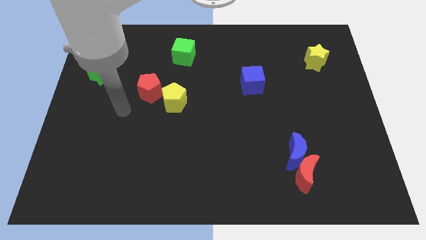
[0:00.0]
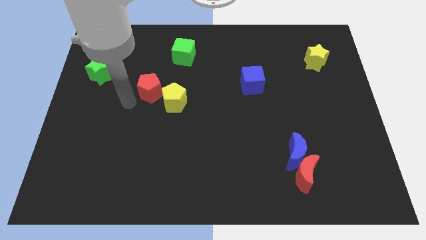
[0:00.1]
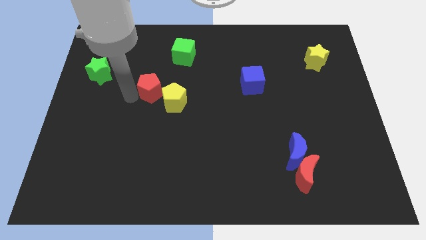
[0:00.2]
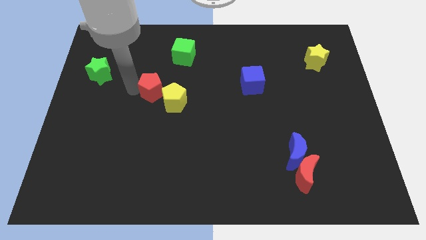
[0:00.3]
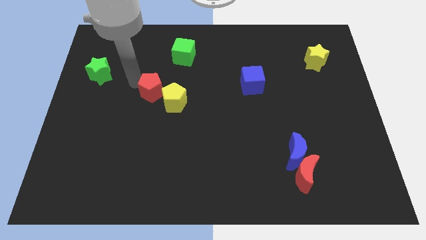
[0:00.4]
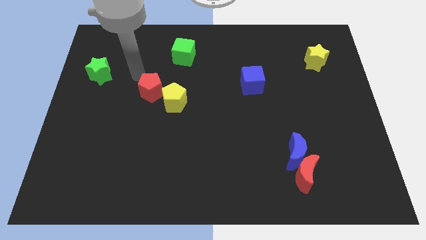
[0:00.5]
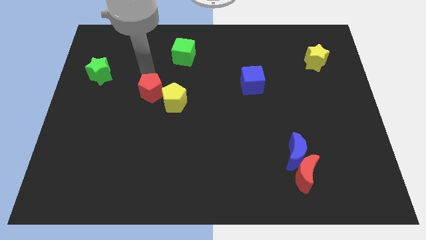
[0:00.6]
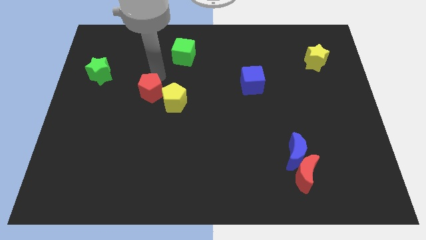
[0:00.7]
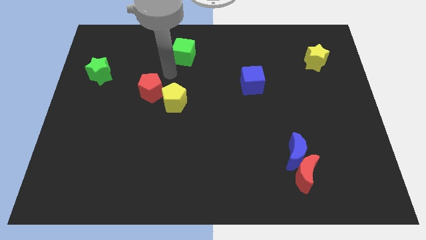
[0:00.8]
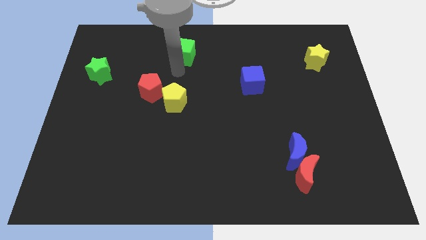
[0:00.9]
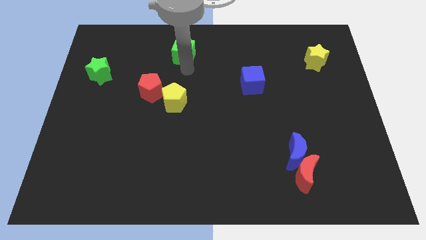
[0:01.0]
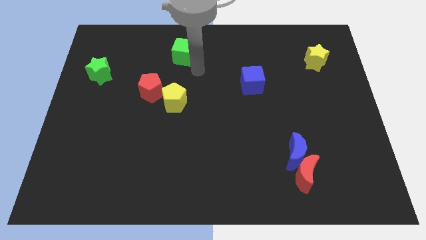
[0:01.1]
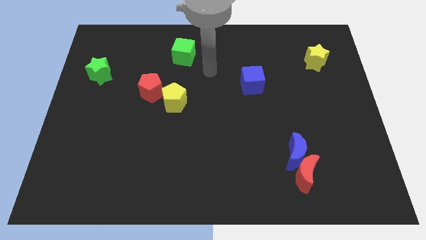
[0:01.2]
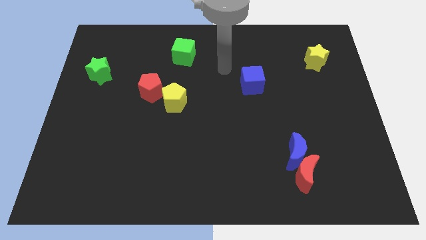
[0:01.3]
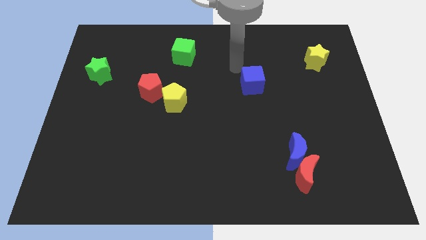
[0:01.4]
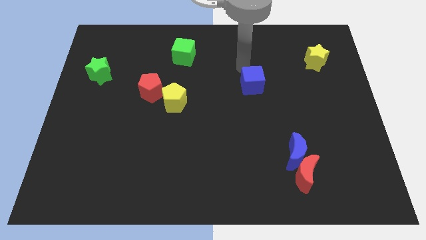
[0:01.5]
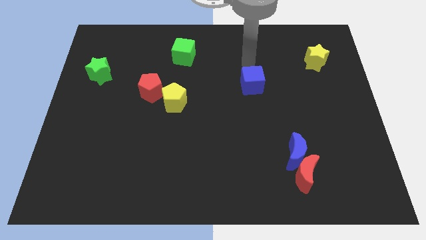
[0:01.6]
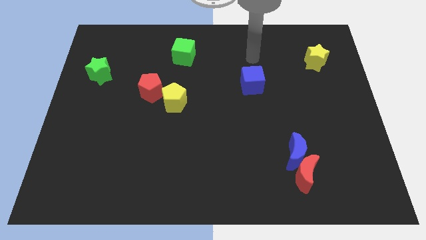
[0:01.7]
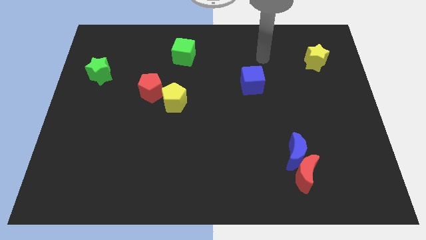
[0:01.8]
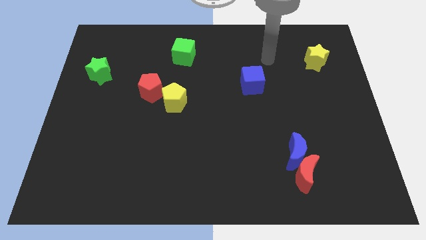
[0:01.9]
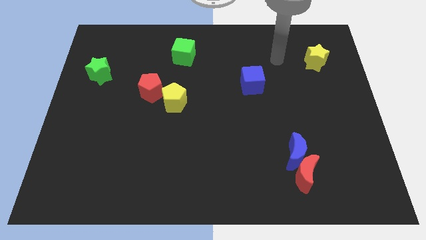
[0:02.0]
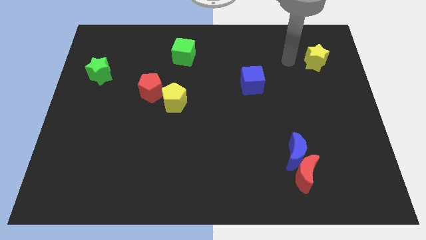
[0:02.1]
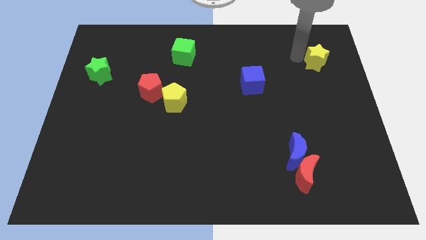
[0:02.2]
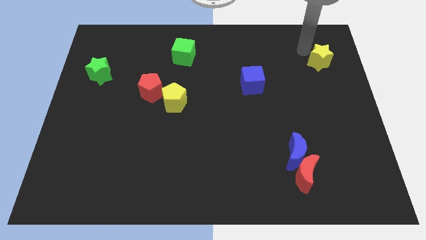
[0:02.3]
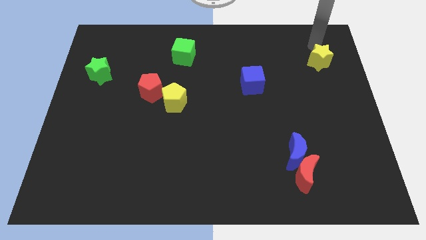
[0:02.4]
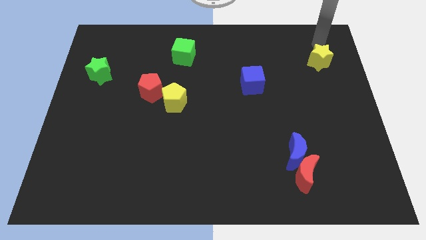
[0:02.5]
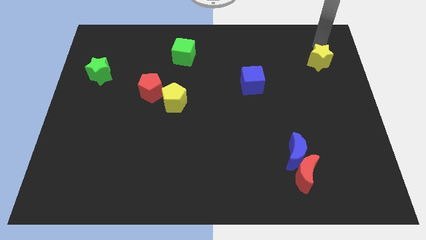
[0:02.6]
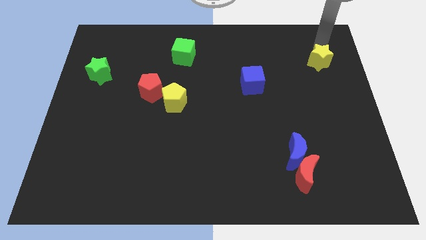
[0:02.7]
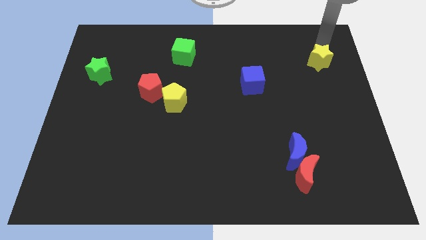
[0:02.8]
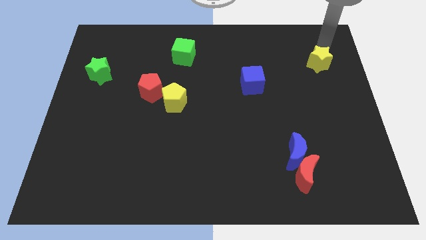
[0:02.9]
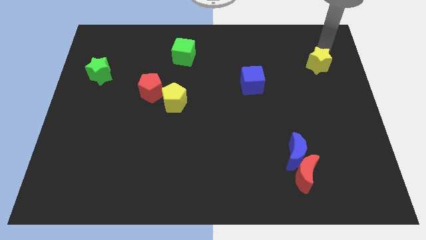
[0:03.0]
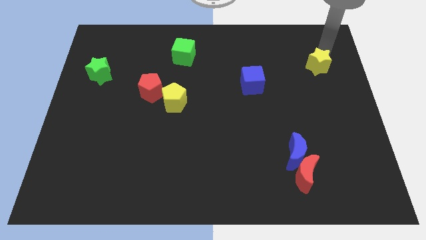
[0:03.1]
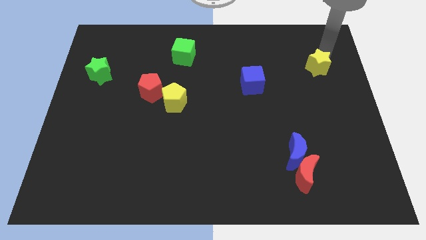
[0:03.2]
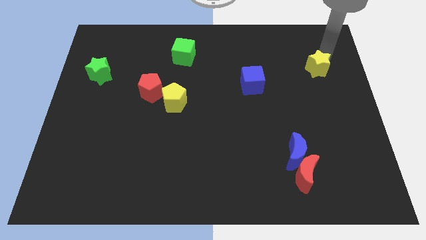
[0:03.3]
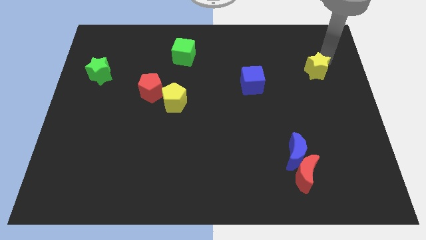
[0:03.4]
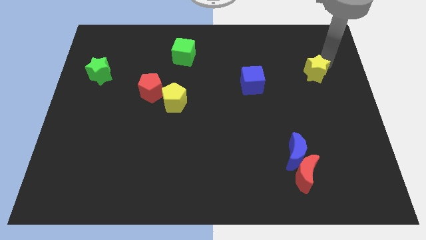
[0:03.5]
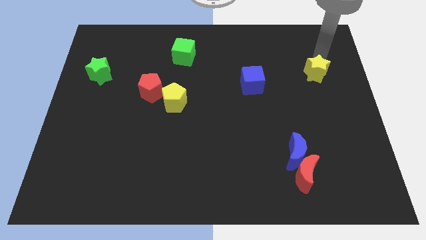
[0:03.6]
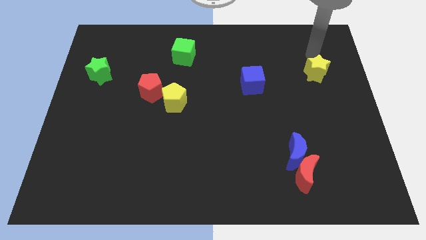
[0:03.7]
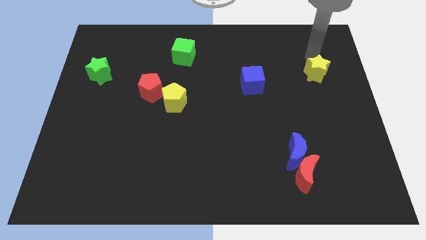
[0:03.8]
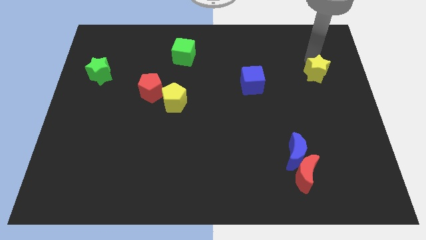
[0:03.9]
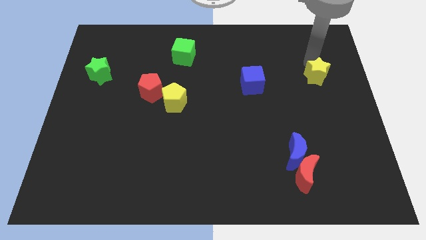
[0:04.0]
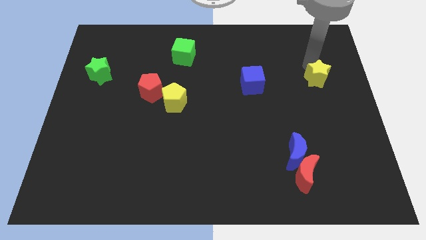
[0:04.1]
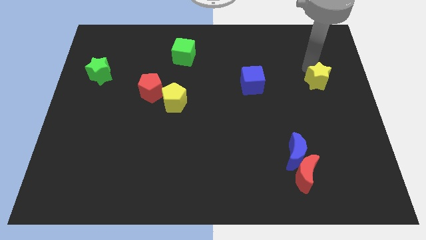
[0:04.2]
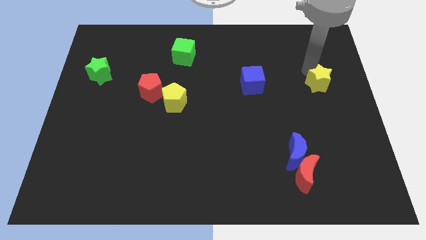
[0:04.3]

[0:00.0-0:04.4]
slightly push the yellow star downwards

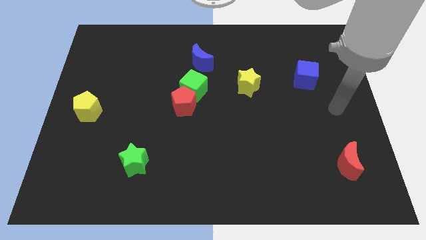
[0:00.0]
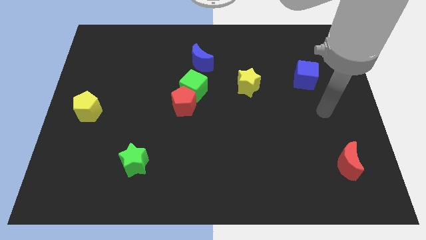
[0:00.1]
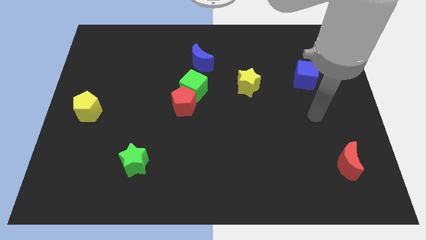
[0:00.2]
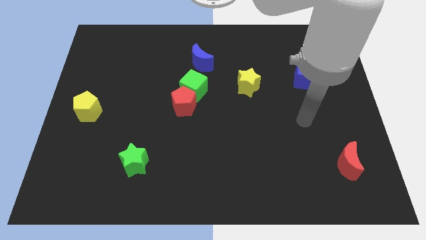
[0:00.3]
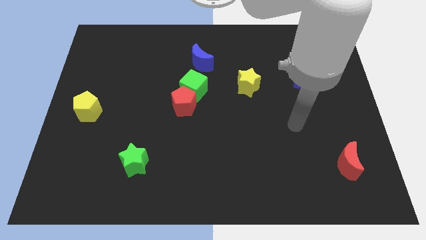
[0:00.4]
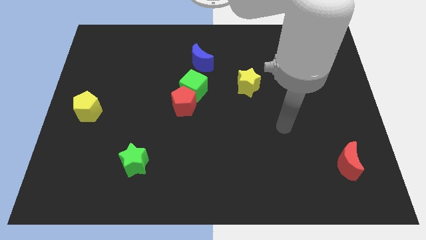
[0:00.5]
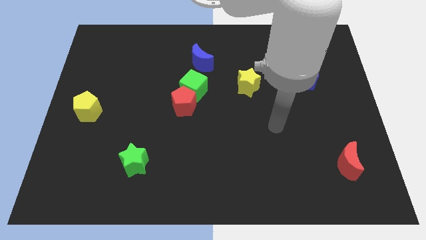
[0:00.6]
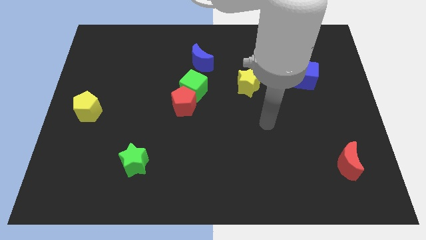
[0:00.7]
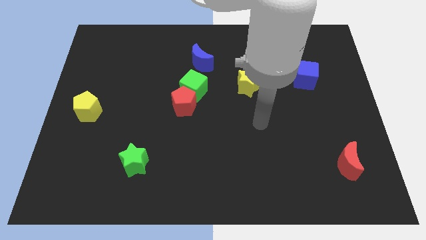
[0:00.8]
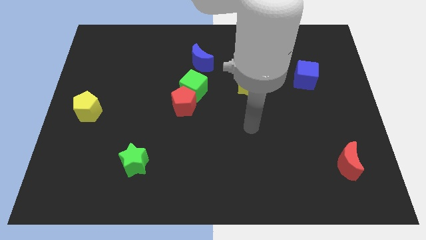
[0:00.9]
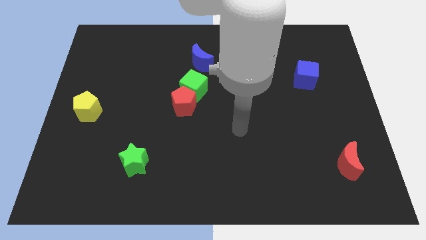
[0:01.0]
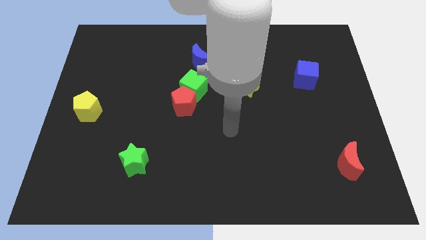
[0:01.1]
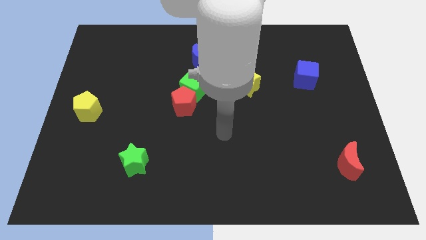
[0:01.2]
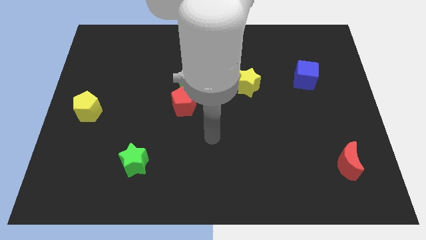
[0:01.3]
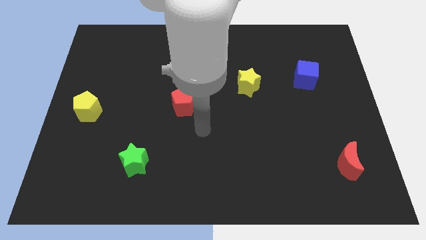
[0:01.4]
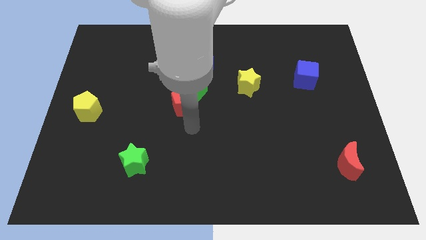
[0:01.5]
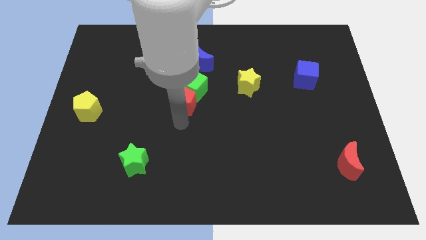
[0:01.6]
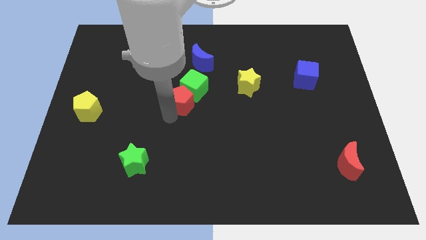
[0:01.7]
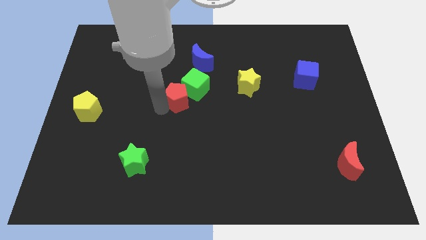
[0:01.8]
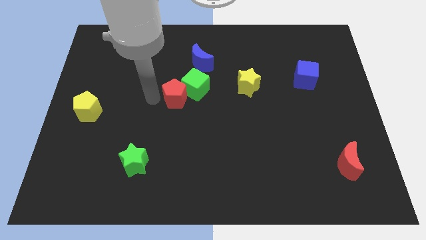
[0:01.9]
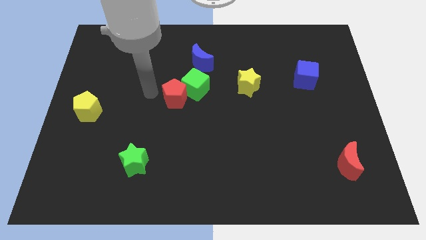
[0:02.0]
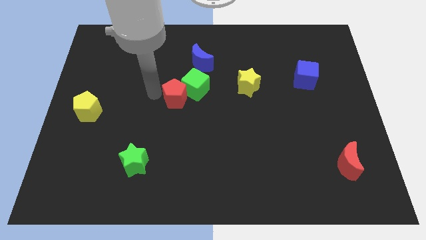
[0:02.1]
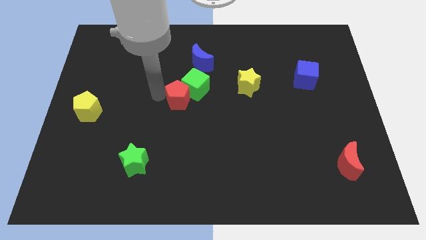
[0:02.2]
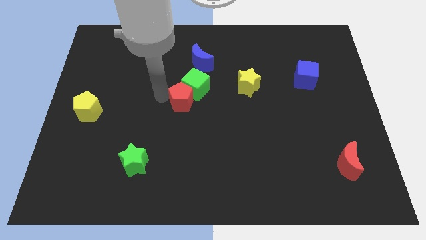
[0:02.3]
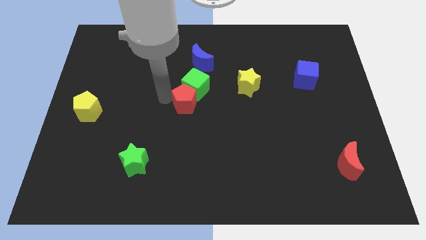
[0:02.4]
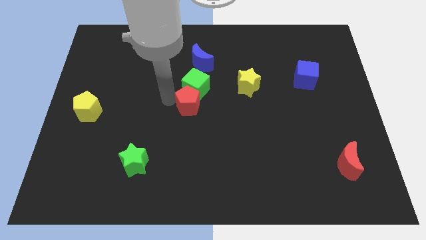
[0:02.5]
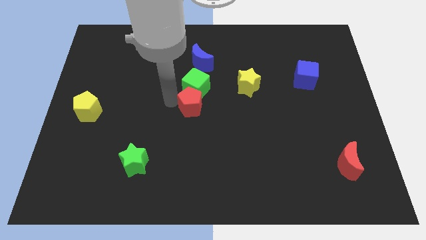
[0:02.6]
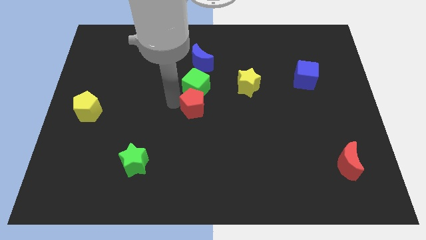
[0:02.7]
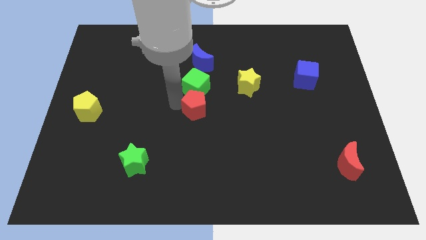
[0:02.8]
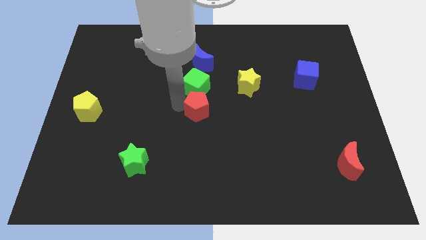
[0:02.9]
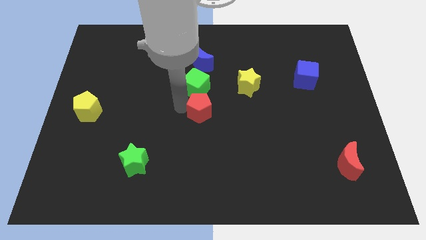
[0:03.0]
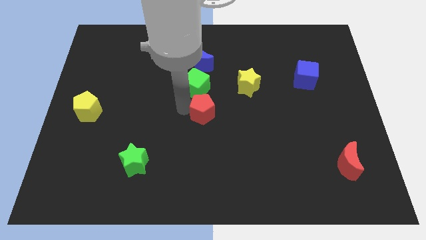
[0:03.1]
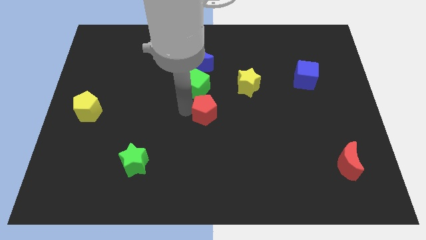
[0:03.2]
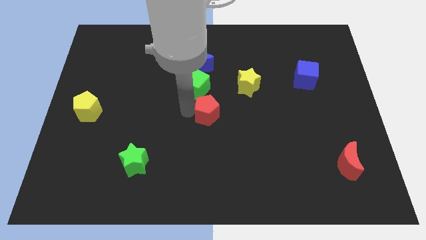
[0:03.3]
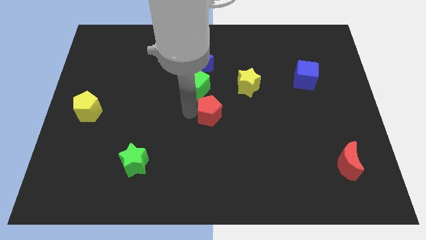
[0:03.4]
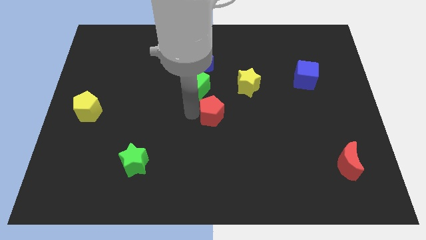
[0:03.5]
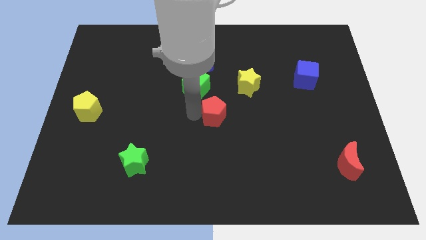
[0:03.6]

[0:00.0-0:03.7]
slightly slide the red pentagon to the right
